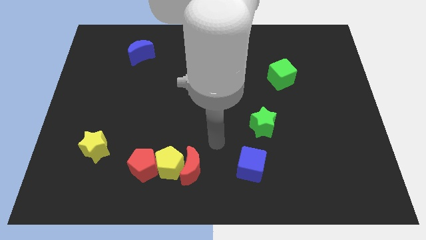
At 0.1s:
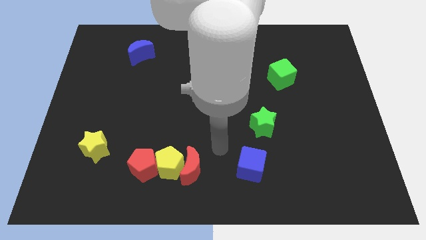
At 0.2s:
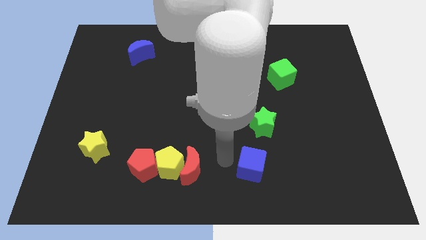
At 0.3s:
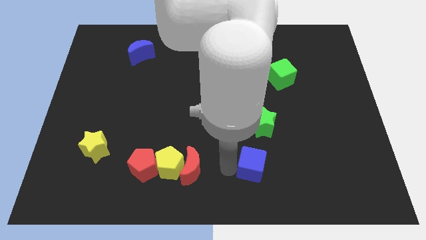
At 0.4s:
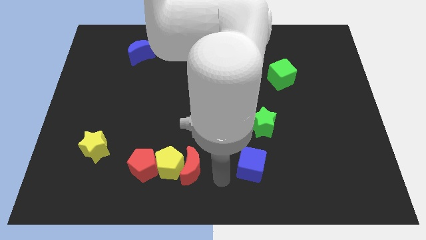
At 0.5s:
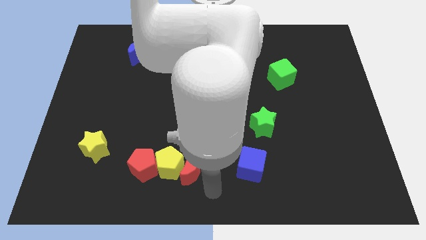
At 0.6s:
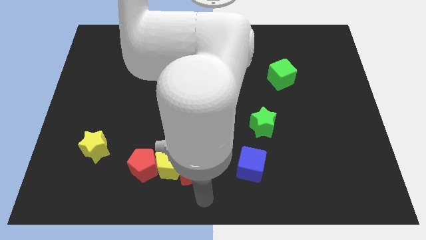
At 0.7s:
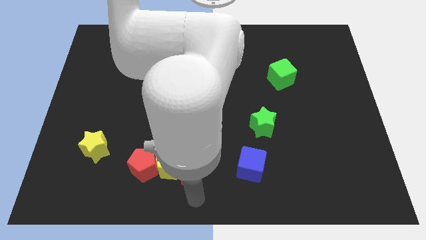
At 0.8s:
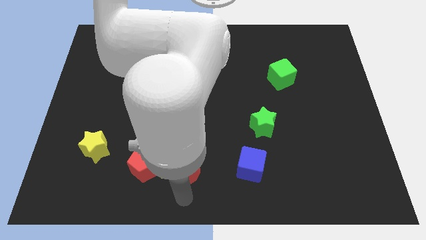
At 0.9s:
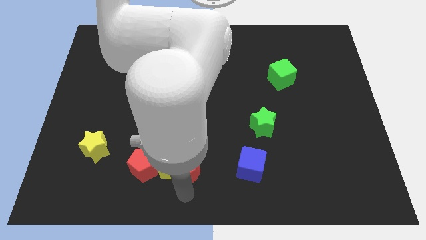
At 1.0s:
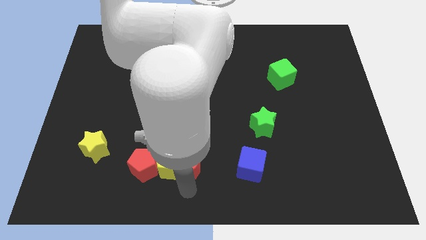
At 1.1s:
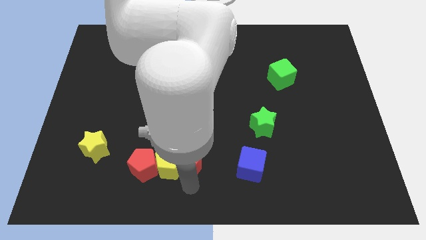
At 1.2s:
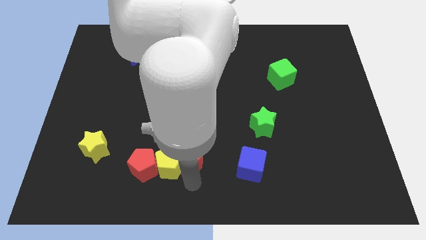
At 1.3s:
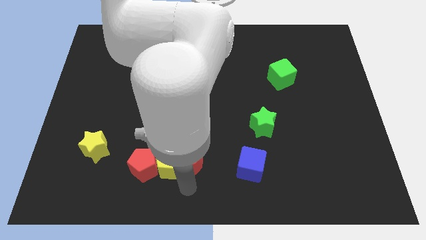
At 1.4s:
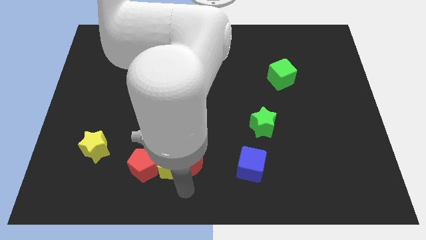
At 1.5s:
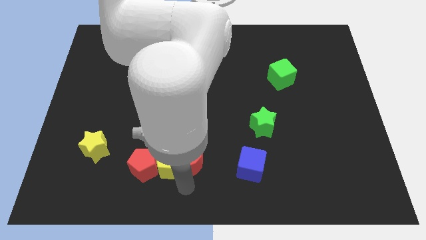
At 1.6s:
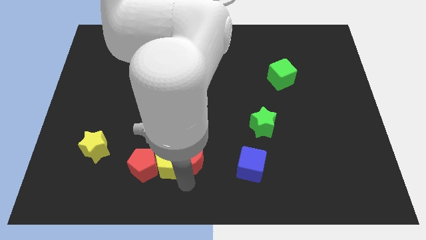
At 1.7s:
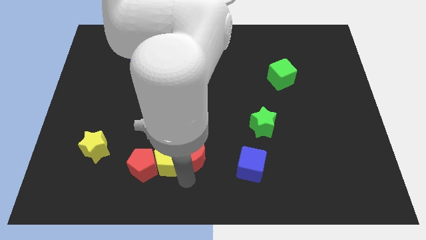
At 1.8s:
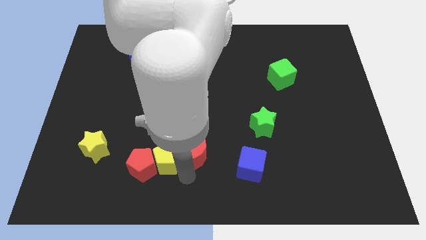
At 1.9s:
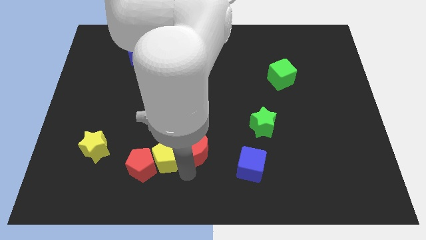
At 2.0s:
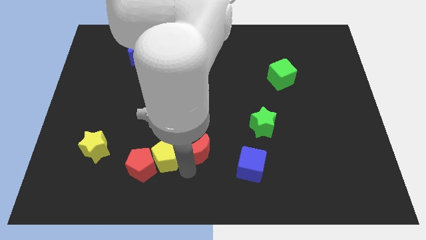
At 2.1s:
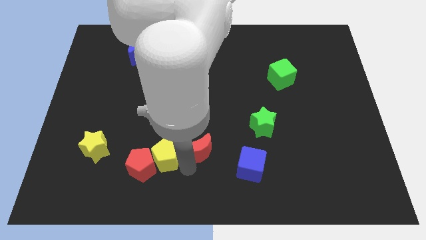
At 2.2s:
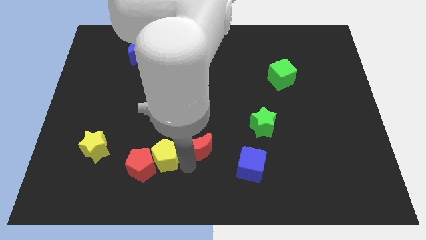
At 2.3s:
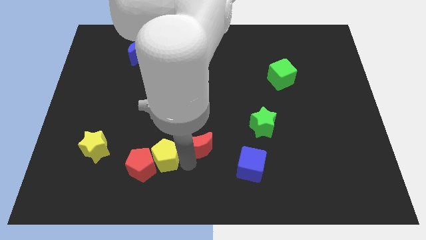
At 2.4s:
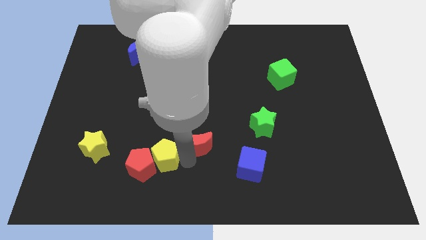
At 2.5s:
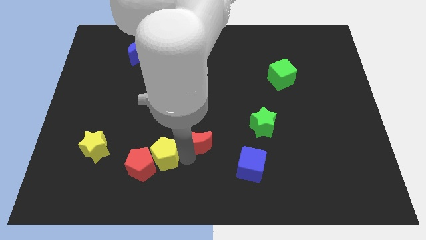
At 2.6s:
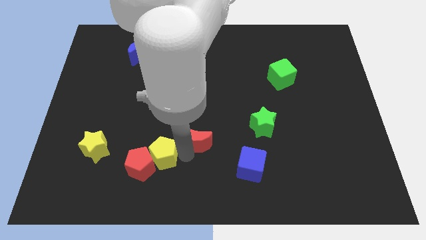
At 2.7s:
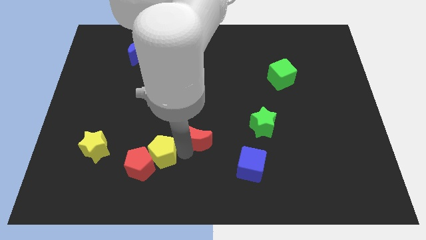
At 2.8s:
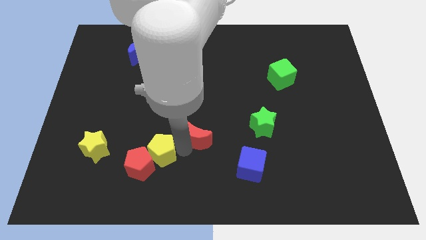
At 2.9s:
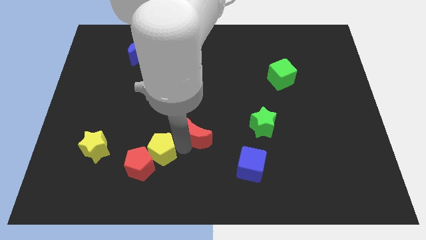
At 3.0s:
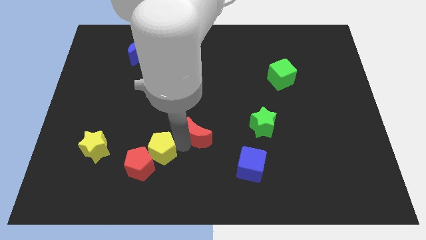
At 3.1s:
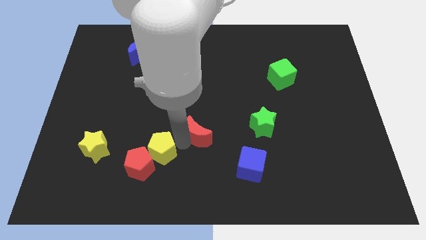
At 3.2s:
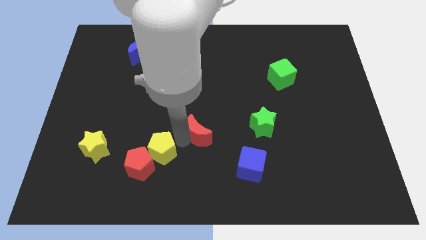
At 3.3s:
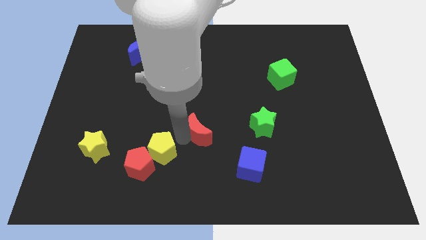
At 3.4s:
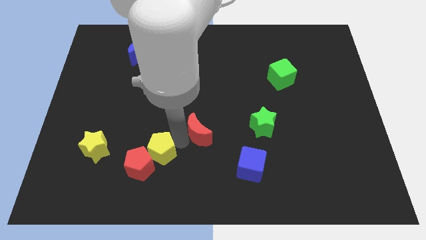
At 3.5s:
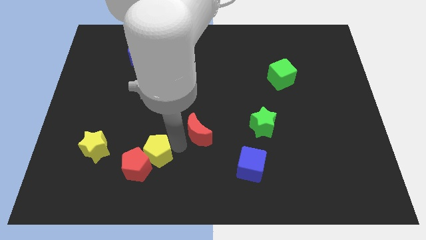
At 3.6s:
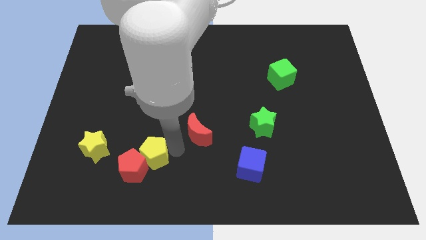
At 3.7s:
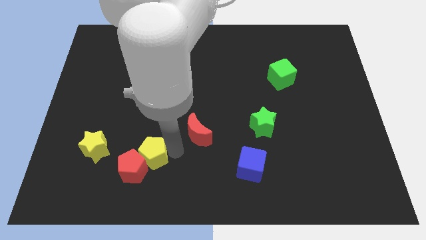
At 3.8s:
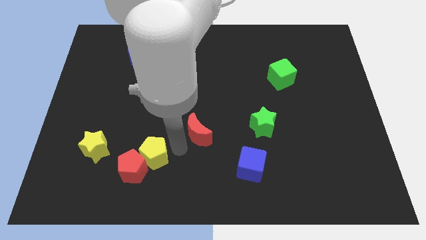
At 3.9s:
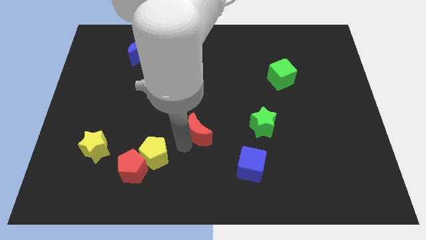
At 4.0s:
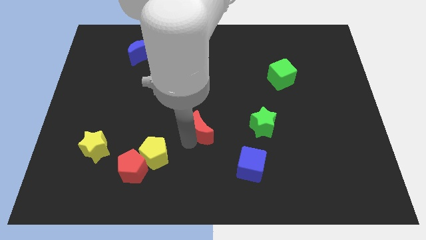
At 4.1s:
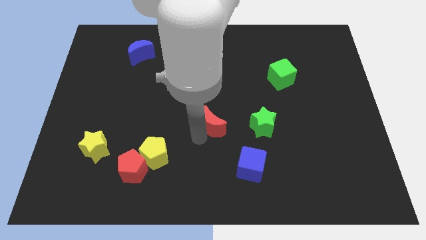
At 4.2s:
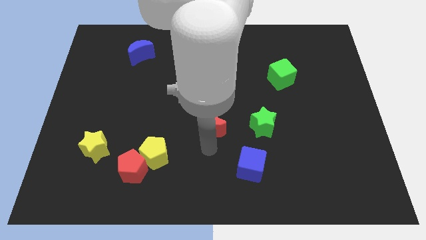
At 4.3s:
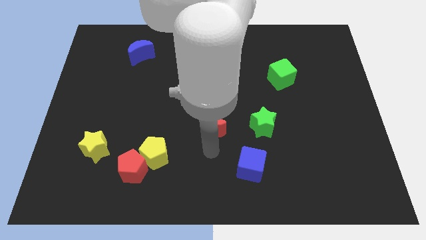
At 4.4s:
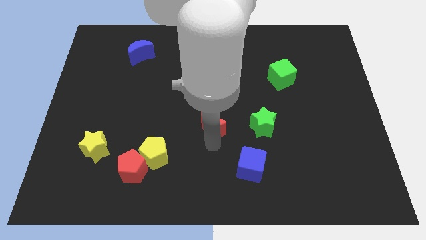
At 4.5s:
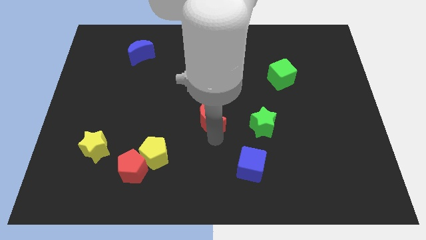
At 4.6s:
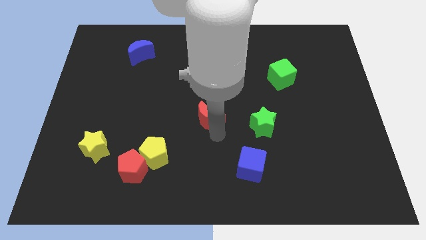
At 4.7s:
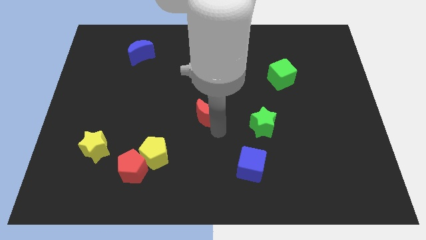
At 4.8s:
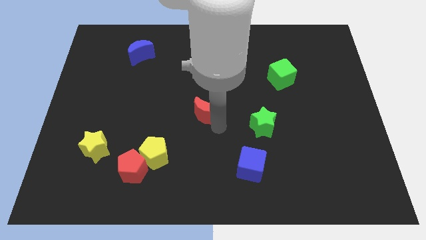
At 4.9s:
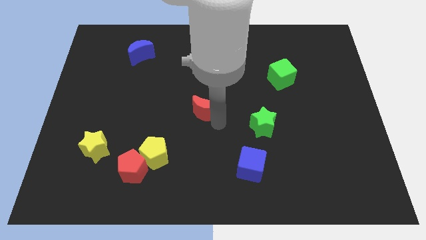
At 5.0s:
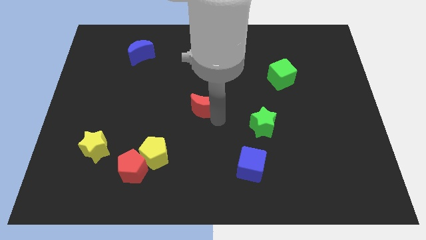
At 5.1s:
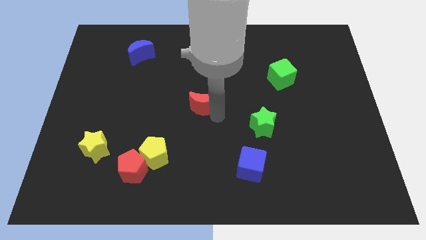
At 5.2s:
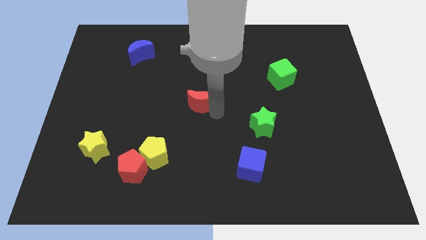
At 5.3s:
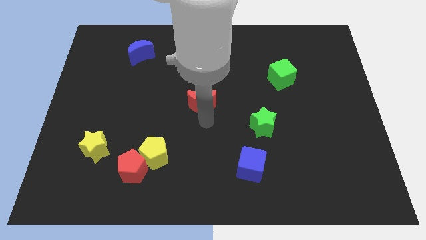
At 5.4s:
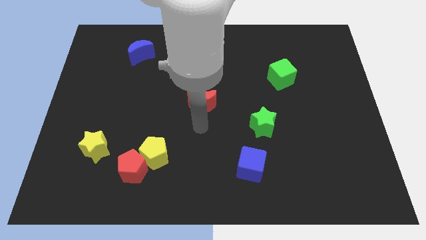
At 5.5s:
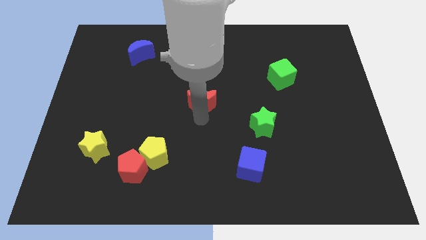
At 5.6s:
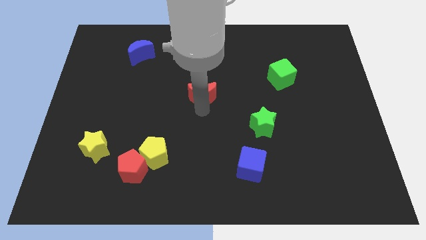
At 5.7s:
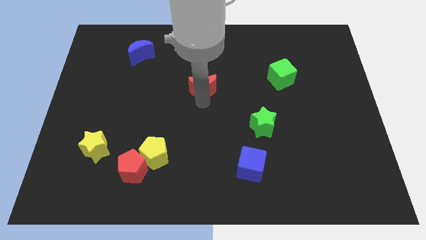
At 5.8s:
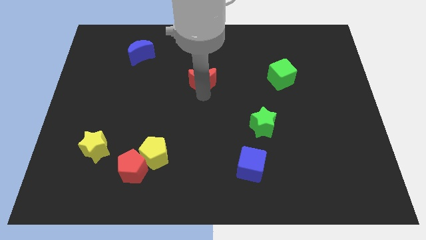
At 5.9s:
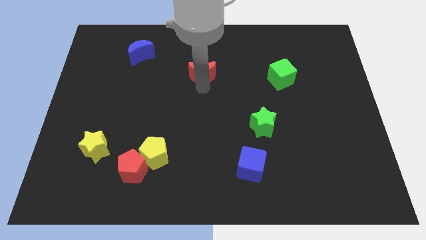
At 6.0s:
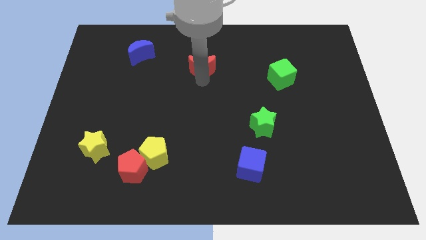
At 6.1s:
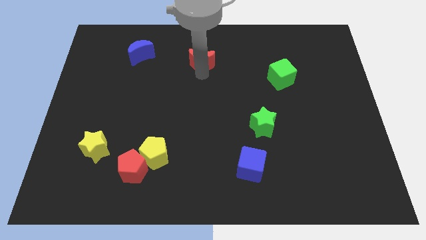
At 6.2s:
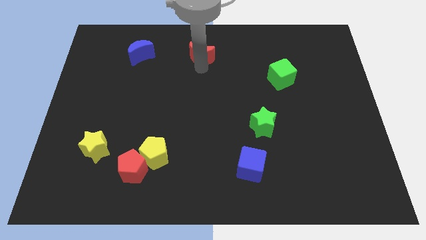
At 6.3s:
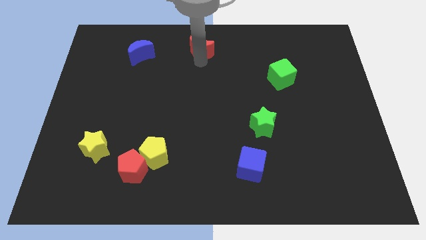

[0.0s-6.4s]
slide the red moon to the top

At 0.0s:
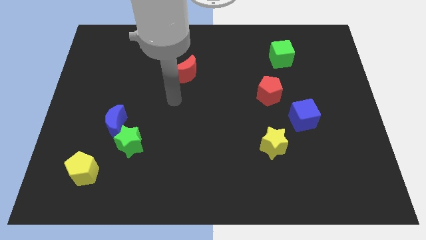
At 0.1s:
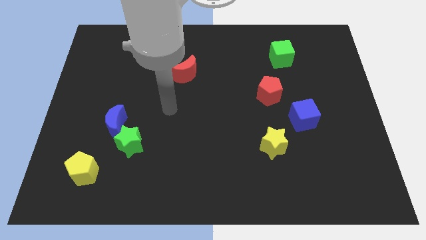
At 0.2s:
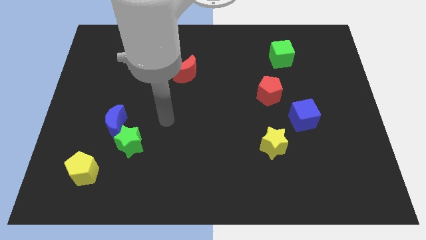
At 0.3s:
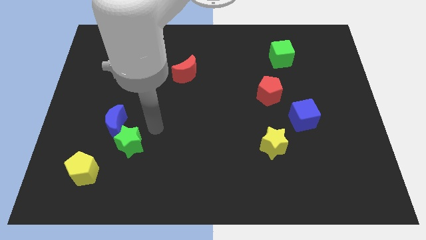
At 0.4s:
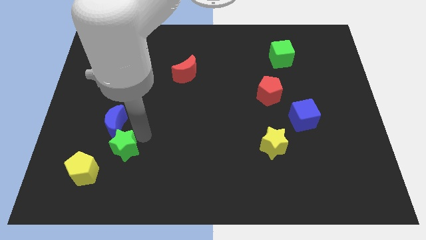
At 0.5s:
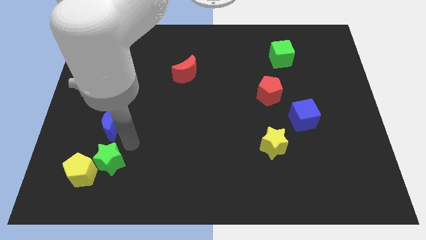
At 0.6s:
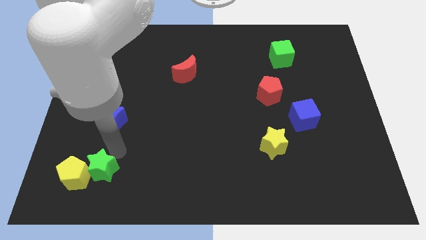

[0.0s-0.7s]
push the yellow pentagon to the lower left corner
